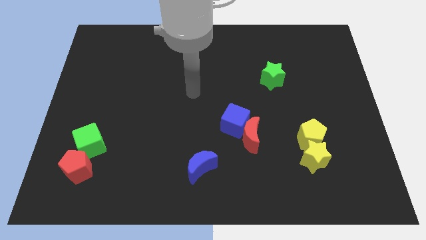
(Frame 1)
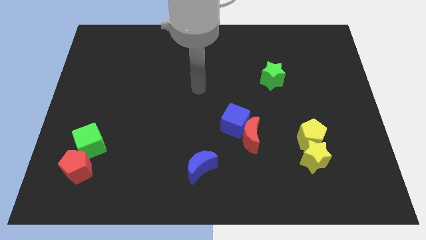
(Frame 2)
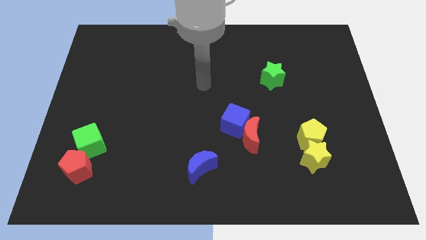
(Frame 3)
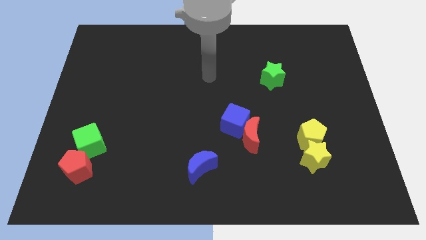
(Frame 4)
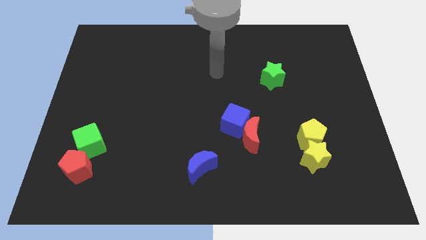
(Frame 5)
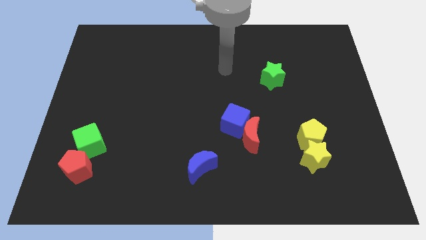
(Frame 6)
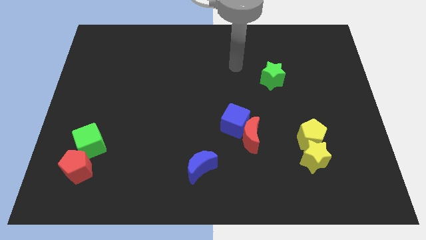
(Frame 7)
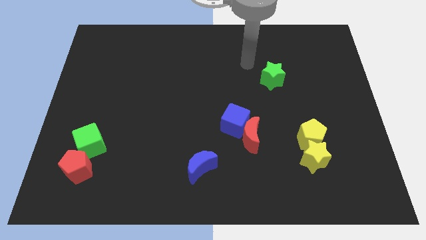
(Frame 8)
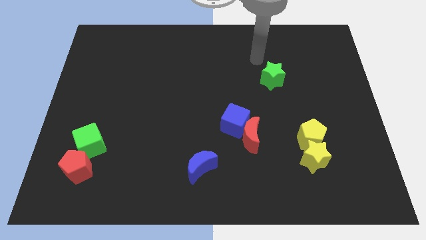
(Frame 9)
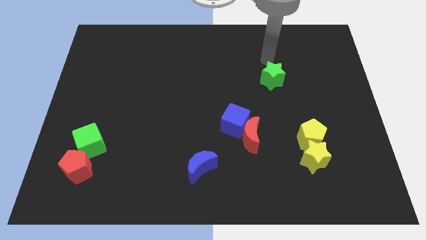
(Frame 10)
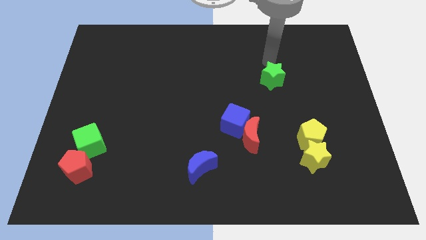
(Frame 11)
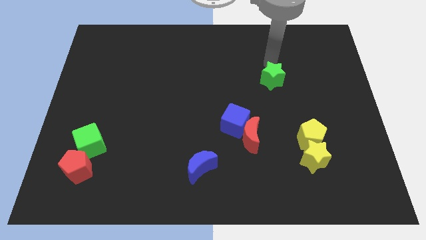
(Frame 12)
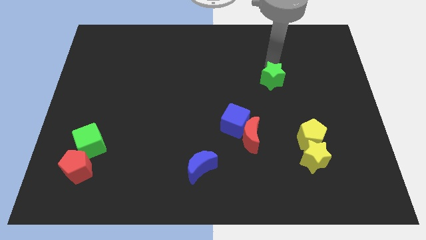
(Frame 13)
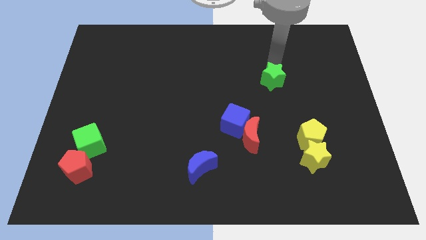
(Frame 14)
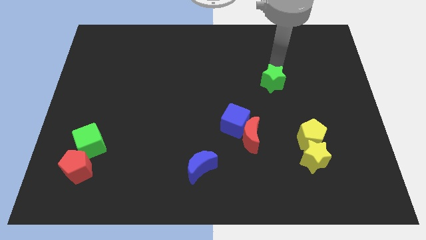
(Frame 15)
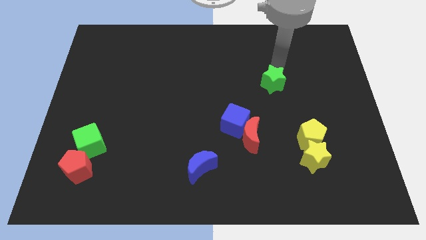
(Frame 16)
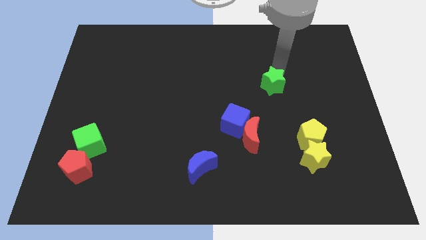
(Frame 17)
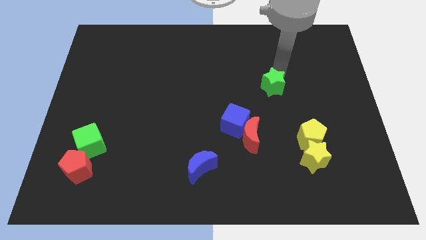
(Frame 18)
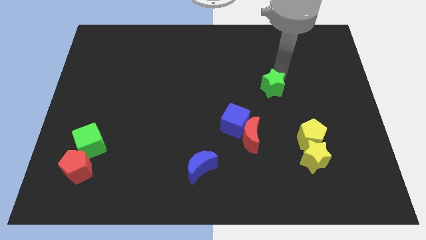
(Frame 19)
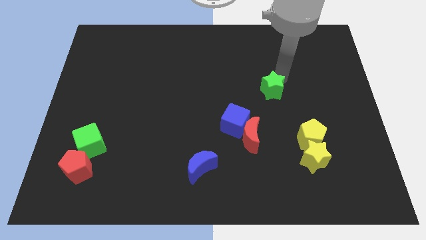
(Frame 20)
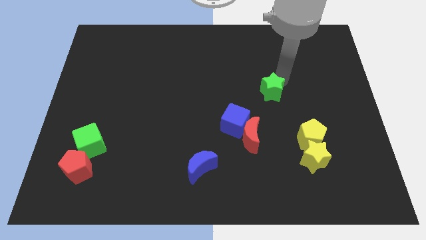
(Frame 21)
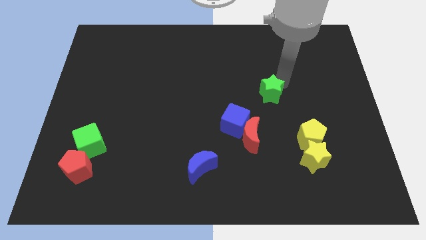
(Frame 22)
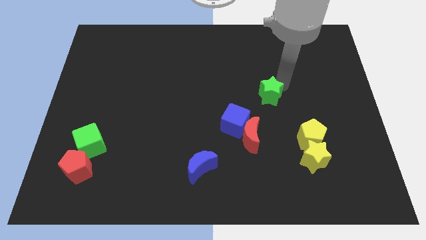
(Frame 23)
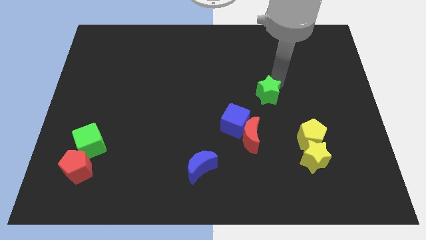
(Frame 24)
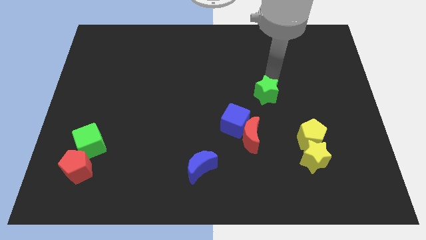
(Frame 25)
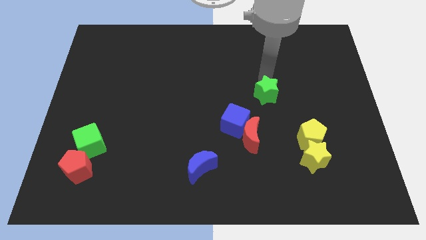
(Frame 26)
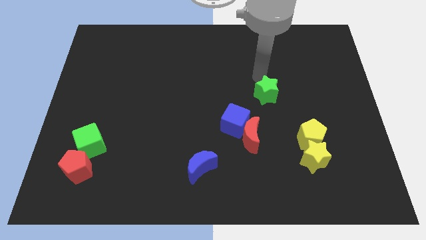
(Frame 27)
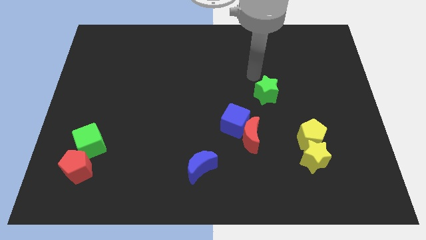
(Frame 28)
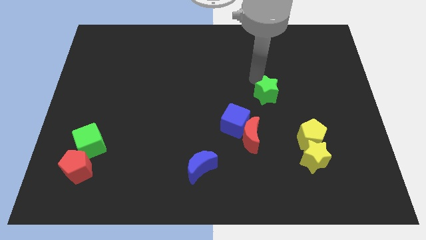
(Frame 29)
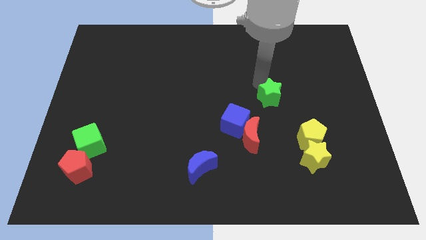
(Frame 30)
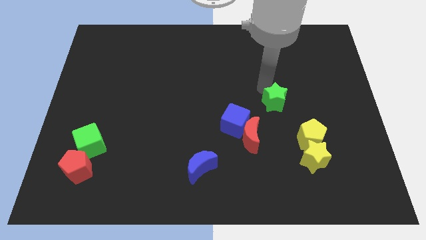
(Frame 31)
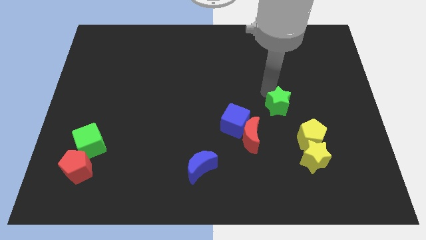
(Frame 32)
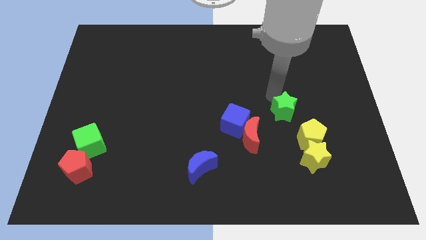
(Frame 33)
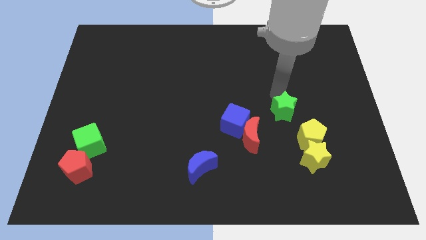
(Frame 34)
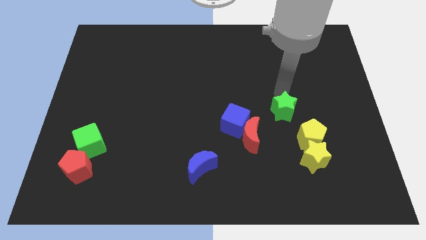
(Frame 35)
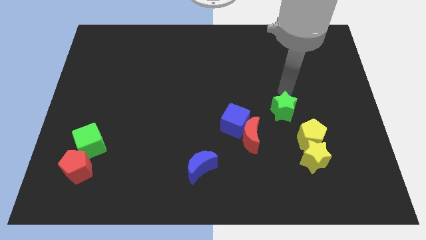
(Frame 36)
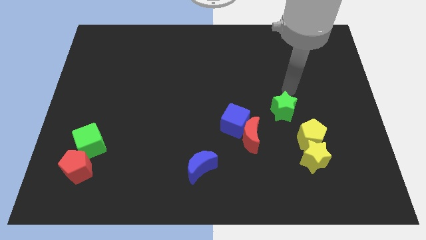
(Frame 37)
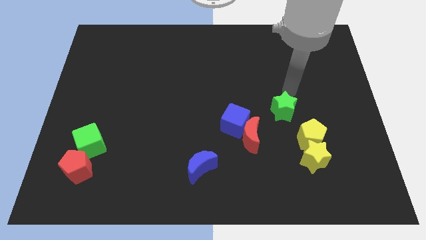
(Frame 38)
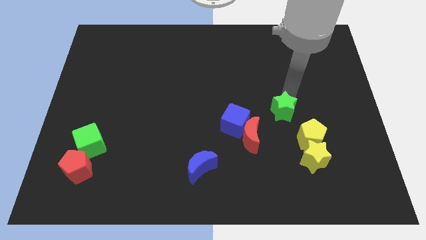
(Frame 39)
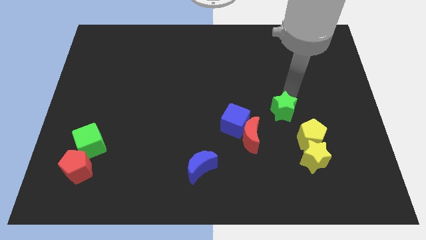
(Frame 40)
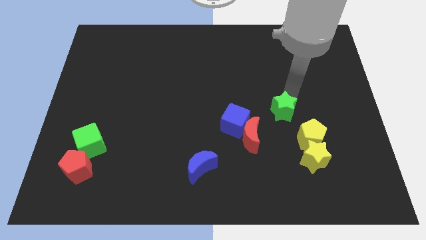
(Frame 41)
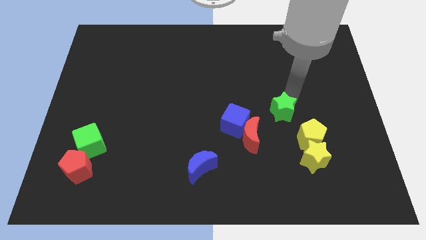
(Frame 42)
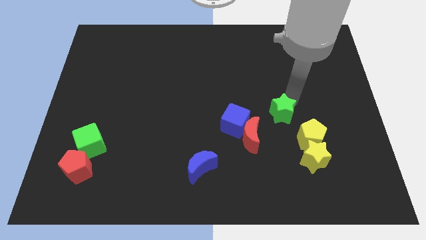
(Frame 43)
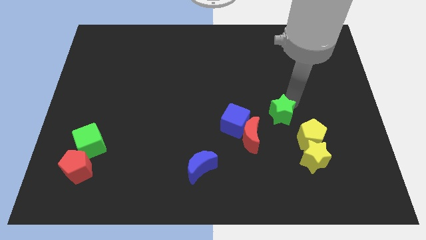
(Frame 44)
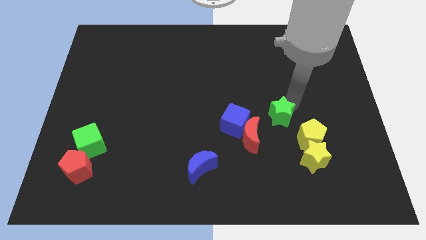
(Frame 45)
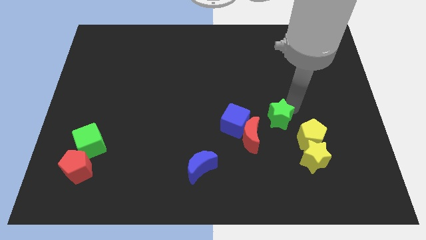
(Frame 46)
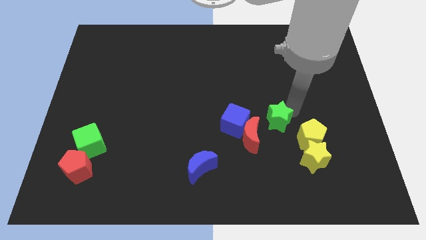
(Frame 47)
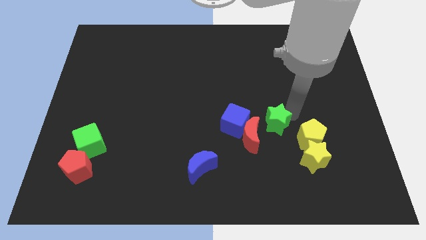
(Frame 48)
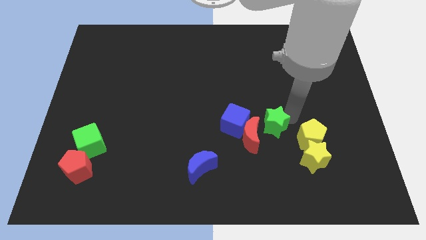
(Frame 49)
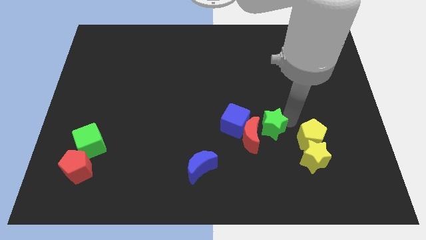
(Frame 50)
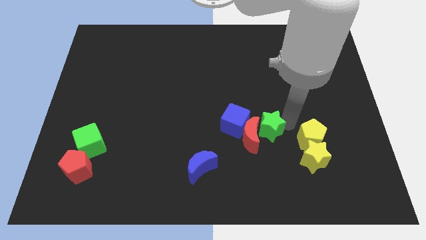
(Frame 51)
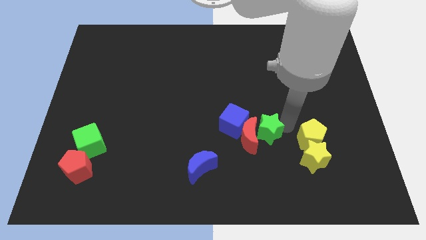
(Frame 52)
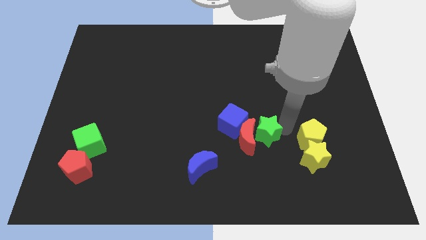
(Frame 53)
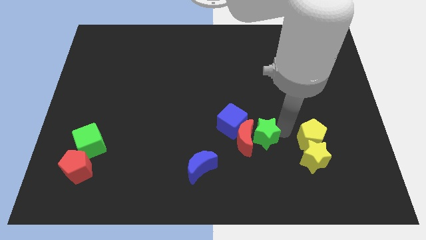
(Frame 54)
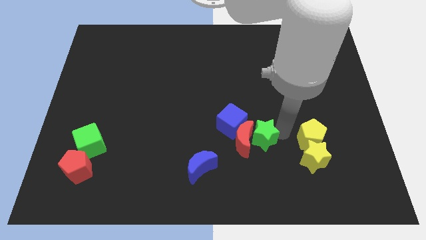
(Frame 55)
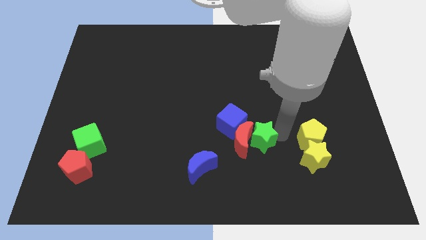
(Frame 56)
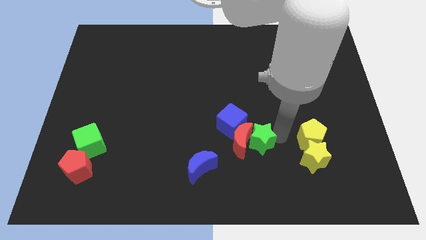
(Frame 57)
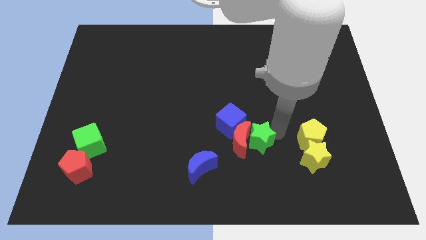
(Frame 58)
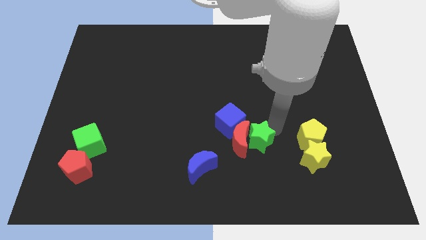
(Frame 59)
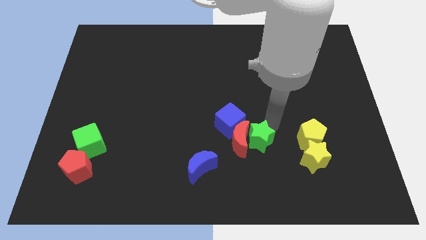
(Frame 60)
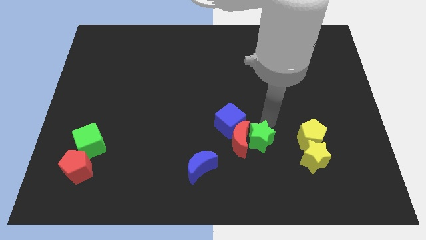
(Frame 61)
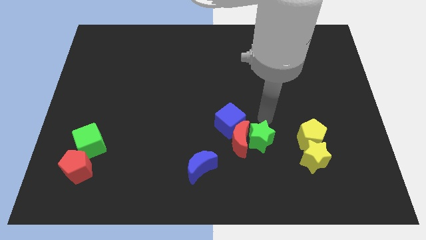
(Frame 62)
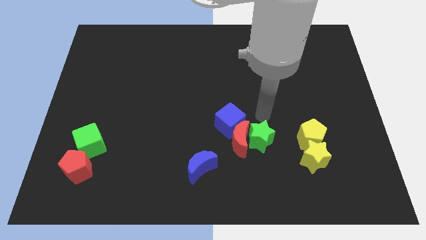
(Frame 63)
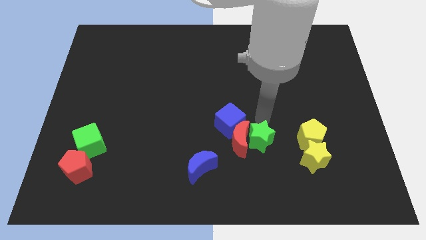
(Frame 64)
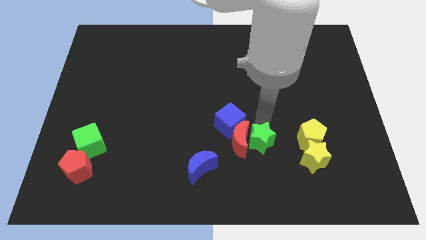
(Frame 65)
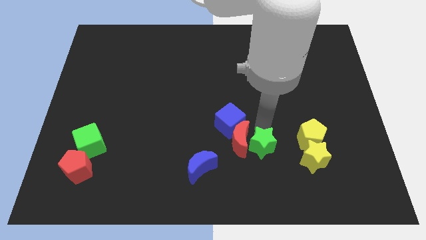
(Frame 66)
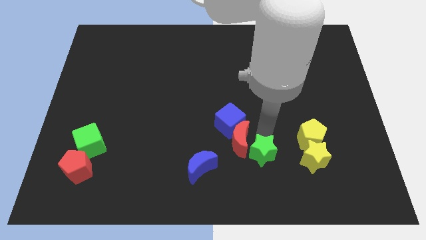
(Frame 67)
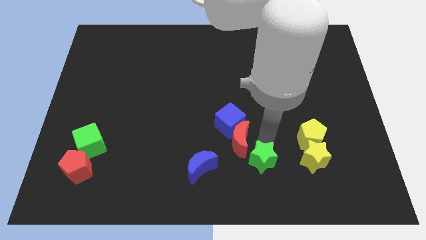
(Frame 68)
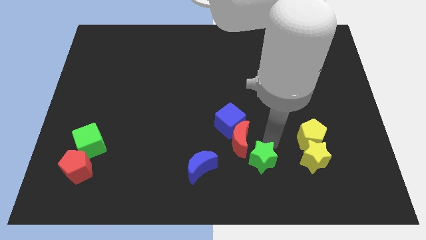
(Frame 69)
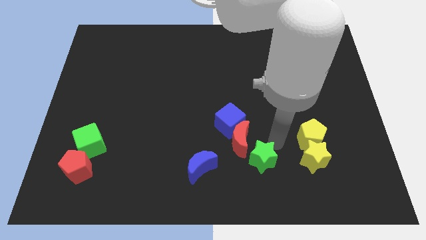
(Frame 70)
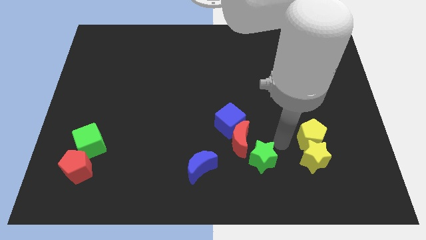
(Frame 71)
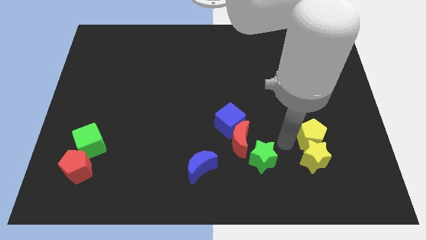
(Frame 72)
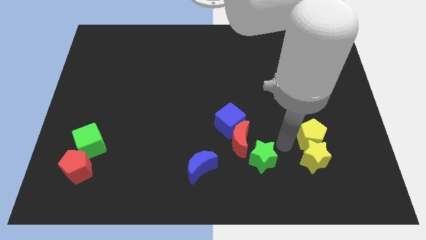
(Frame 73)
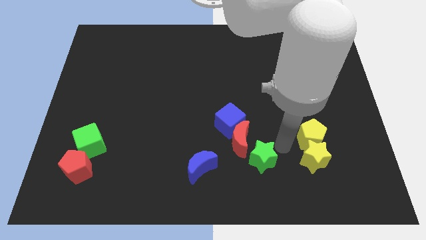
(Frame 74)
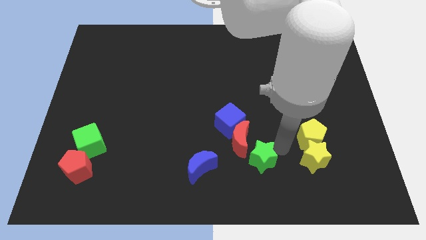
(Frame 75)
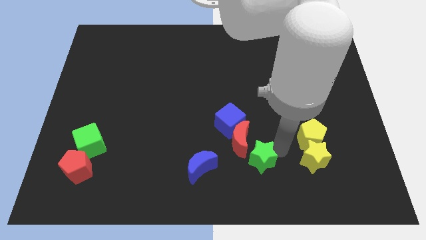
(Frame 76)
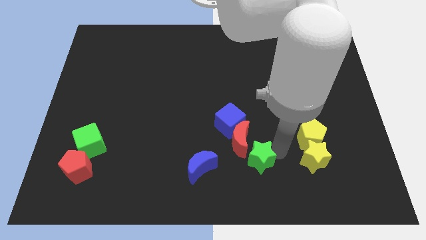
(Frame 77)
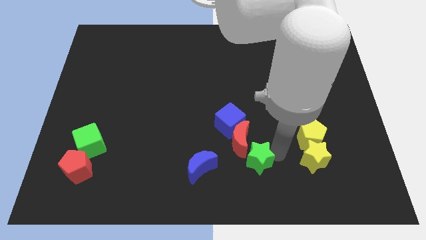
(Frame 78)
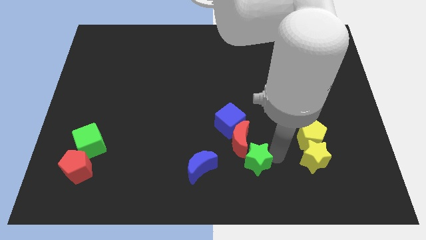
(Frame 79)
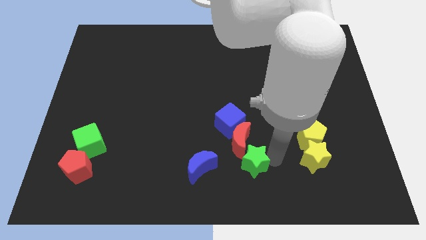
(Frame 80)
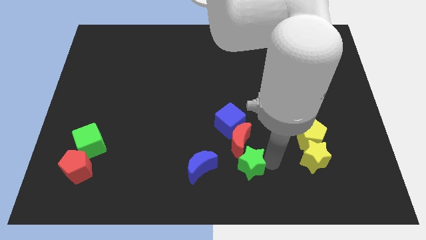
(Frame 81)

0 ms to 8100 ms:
slide the green star to the bottom side
